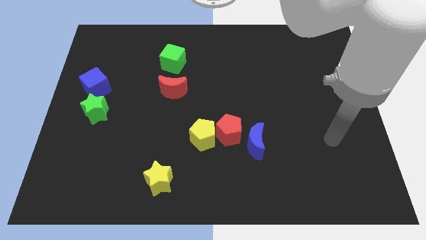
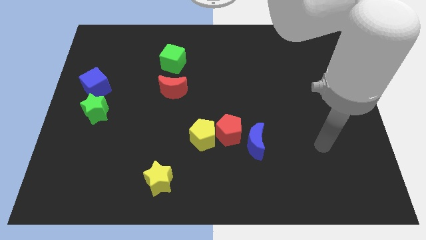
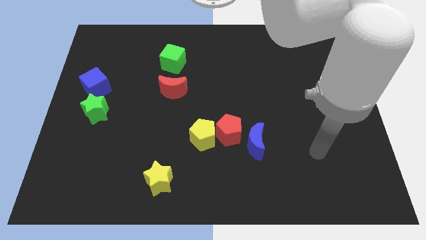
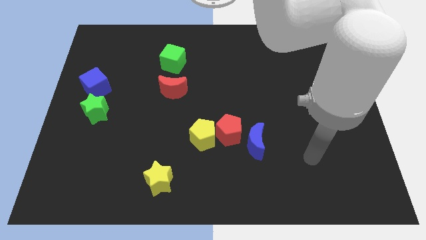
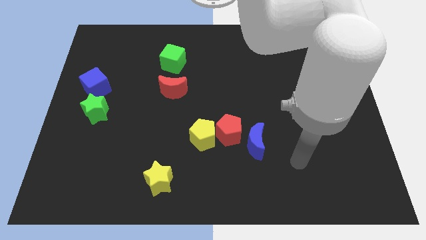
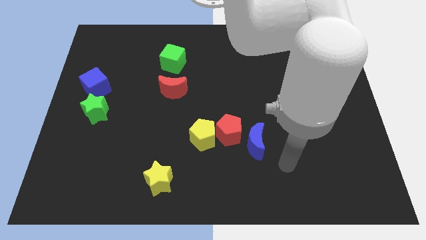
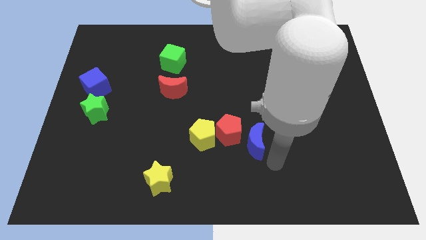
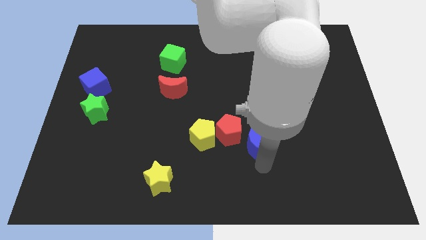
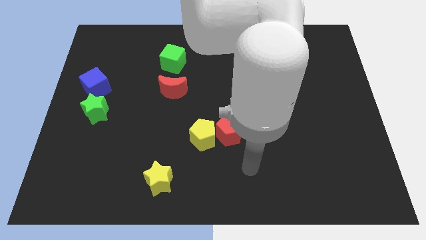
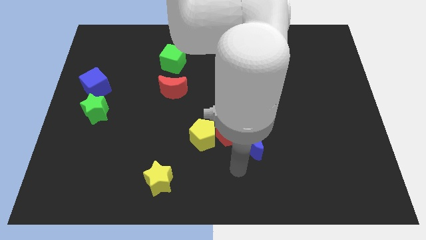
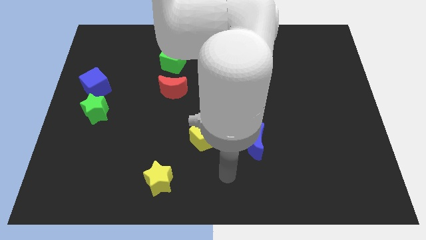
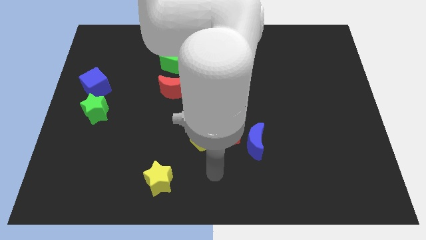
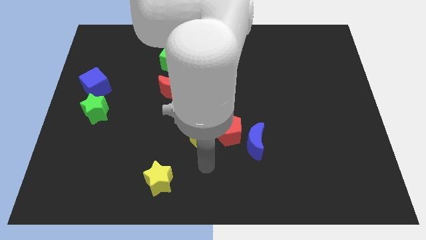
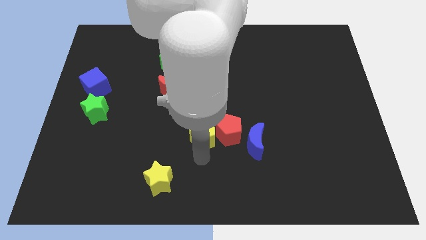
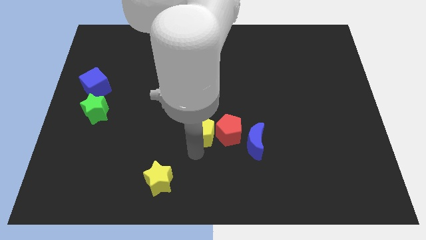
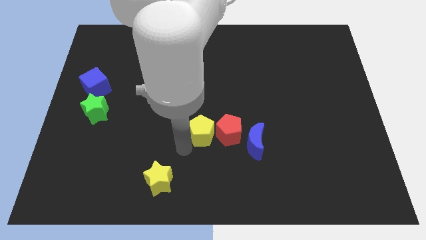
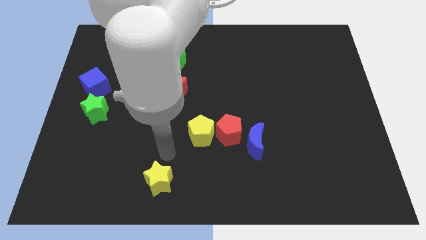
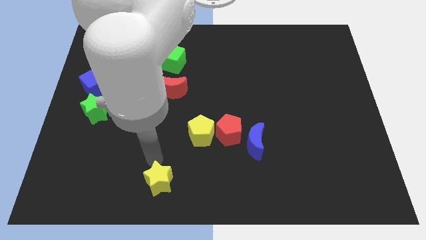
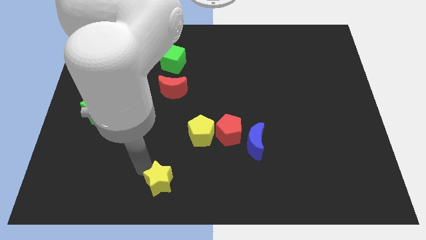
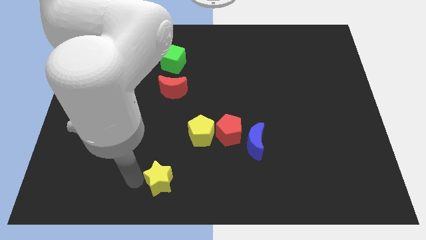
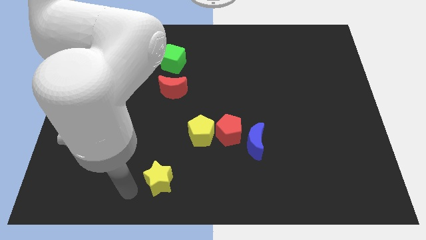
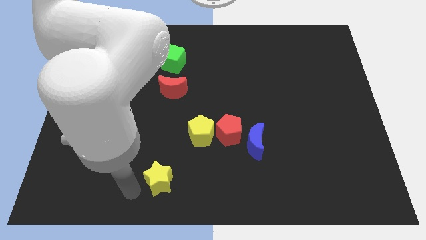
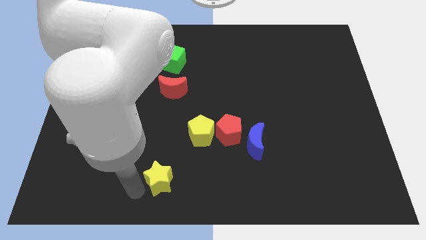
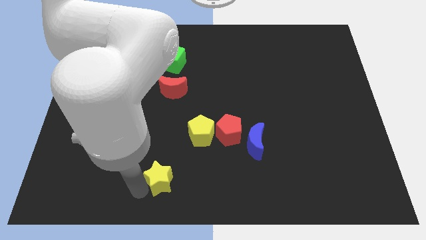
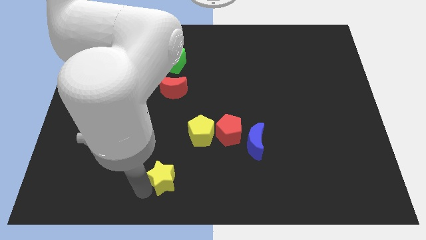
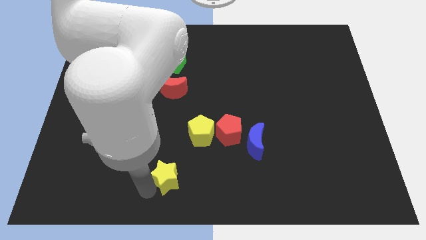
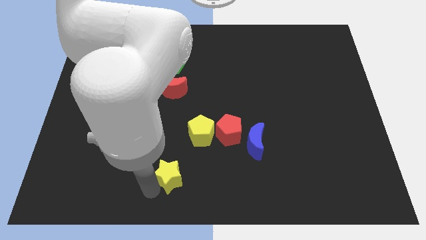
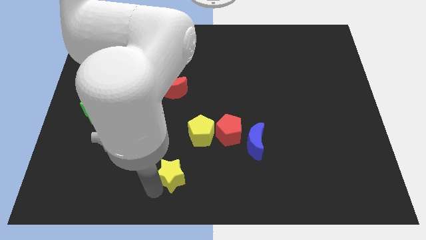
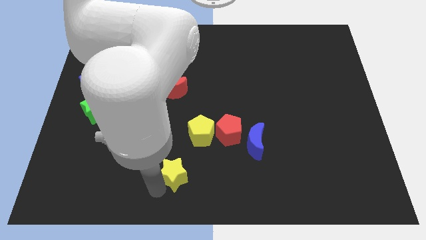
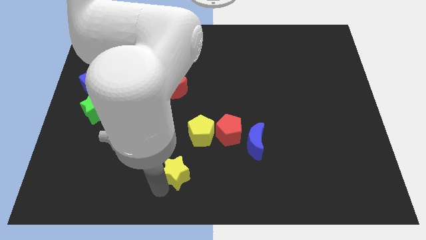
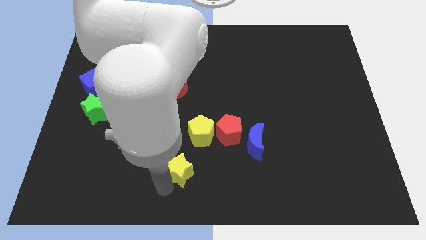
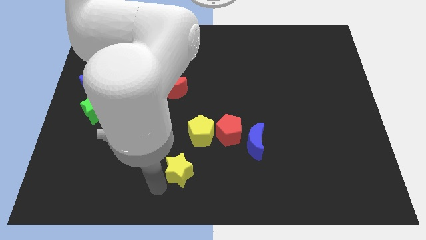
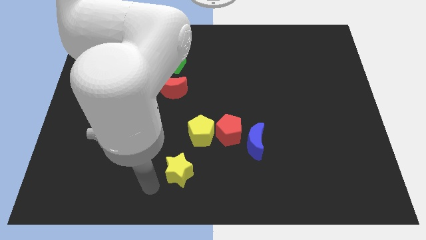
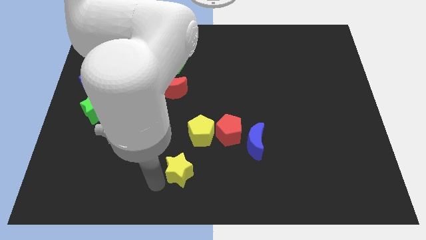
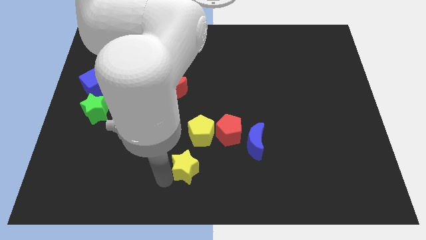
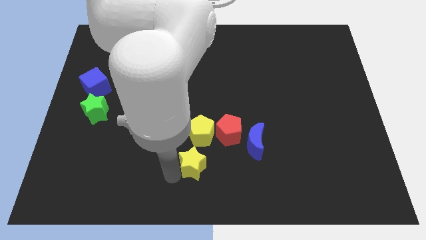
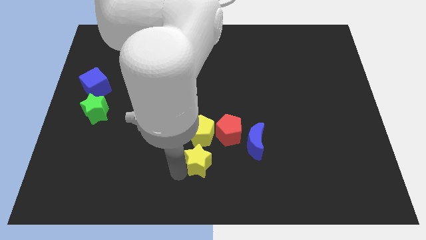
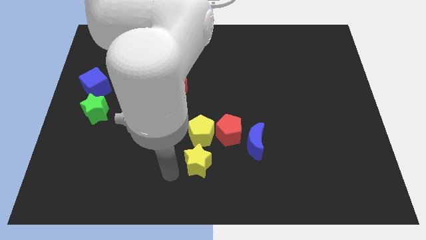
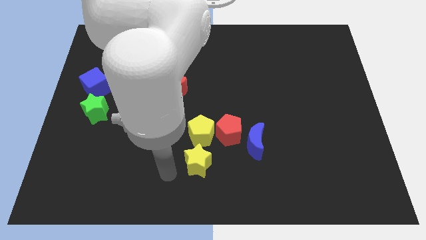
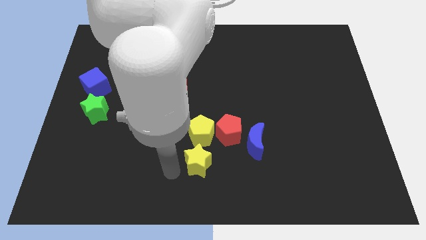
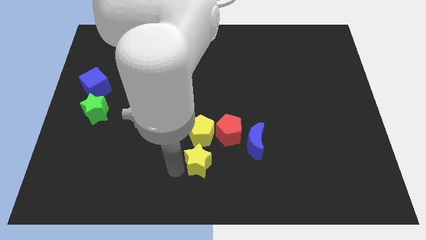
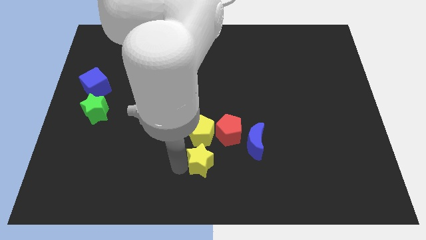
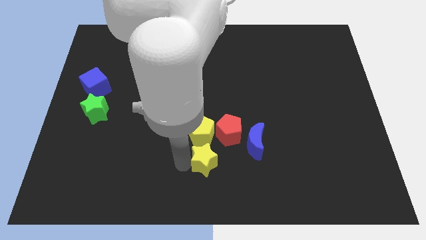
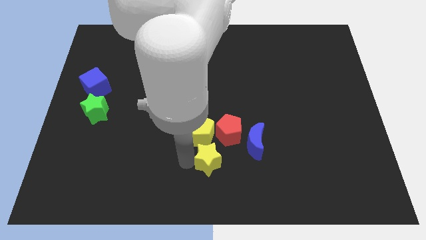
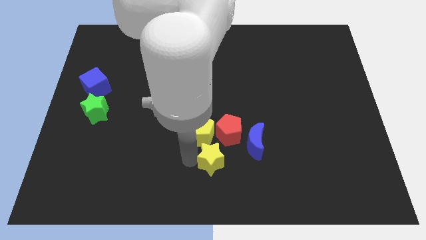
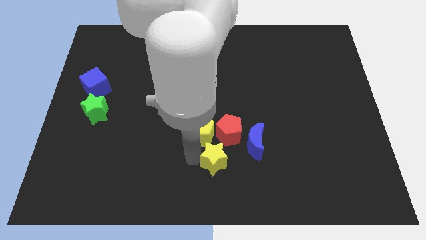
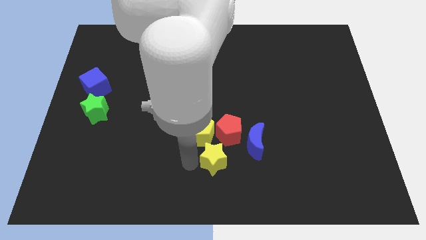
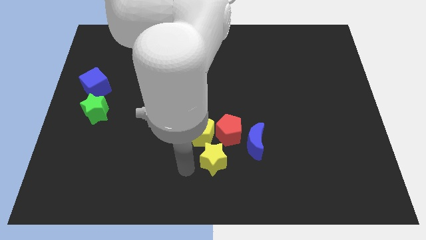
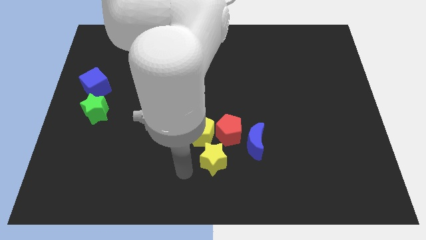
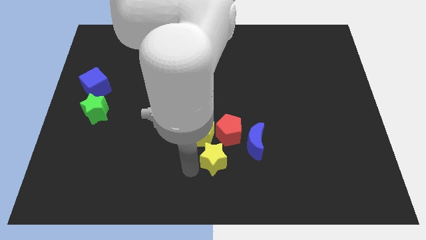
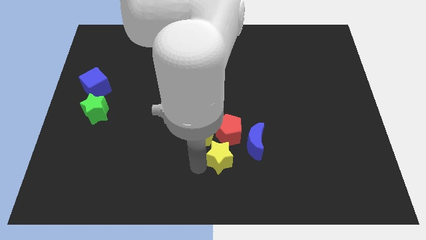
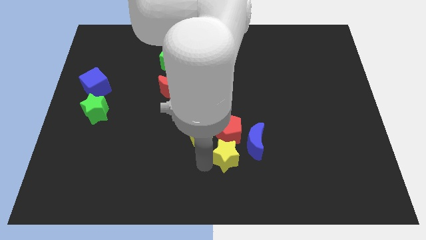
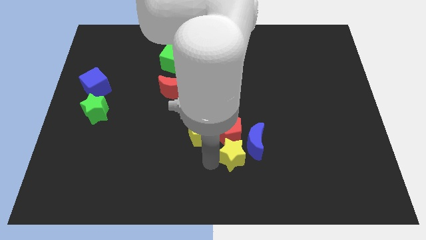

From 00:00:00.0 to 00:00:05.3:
put the yellow star close to the blue moon

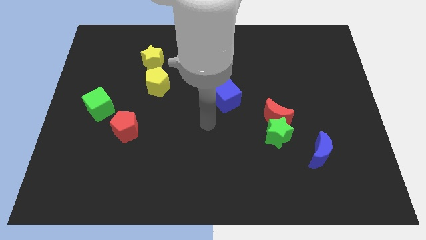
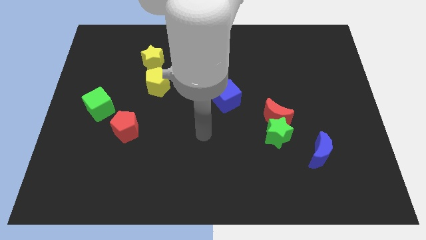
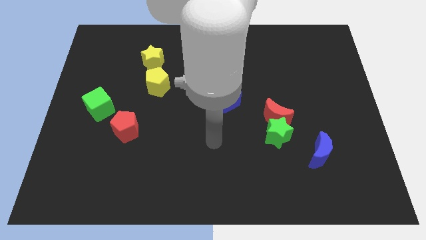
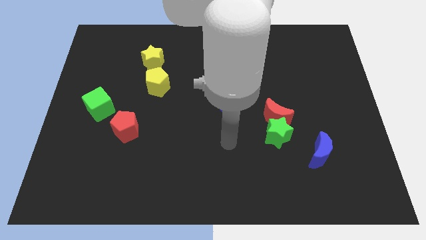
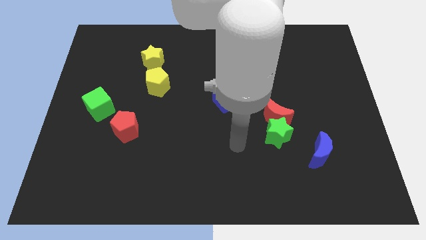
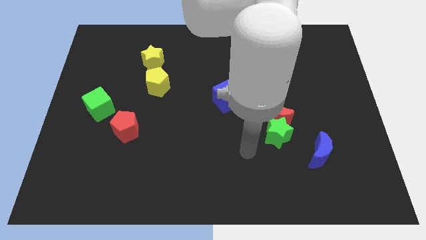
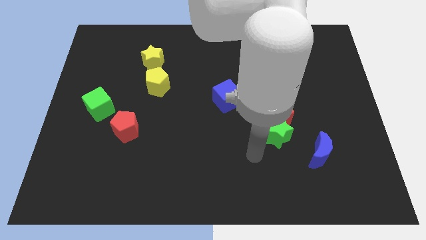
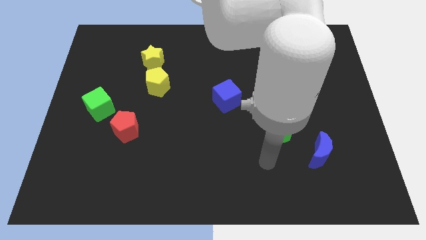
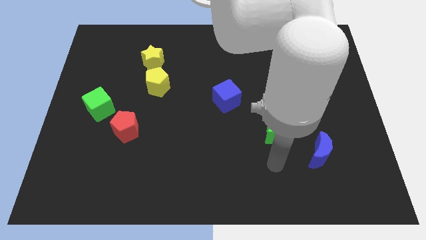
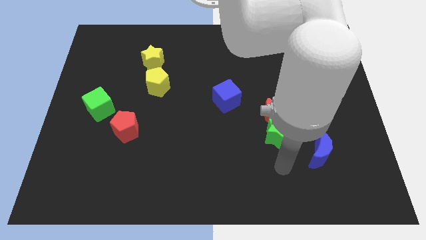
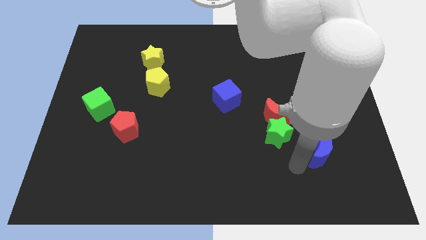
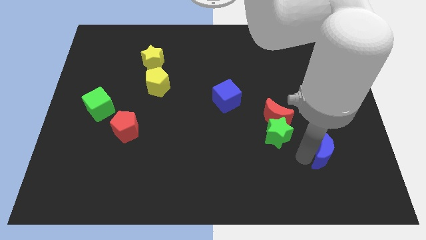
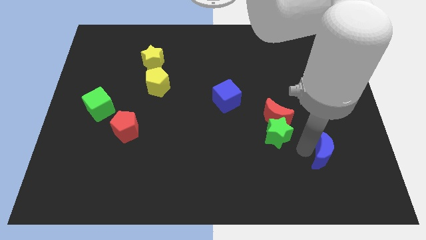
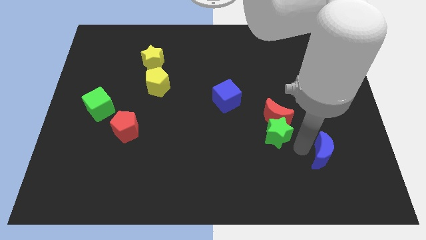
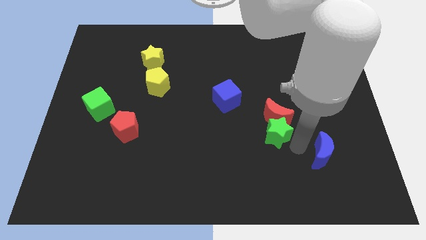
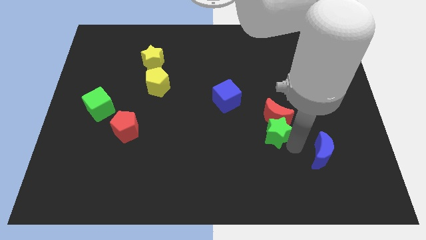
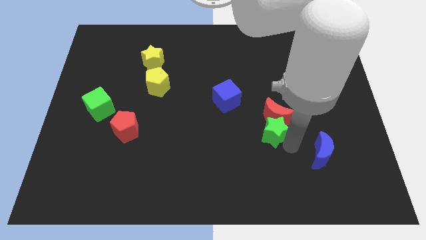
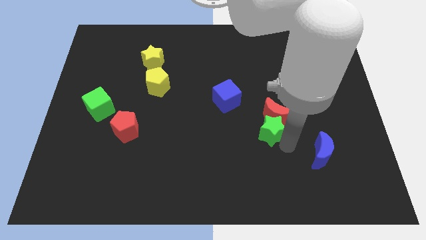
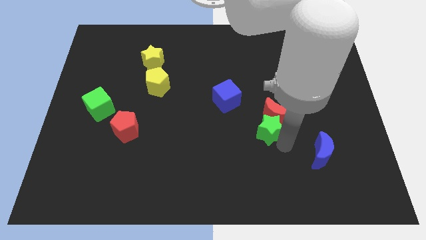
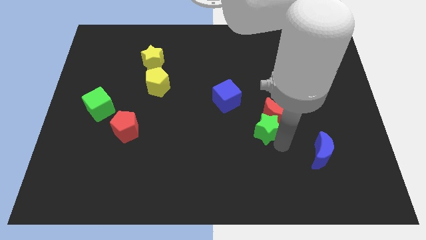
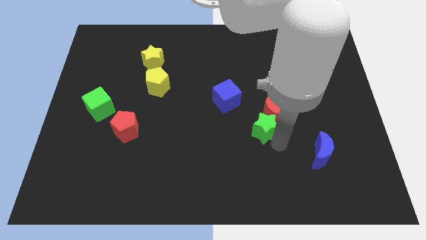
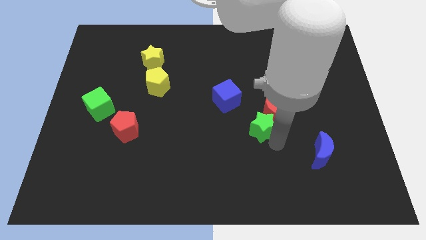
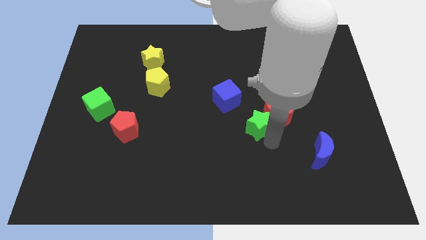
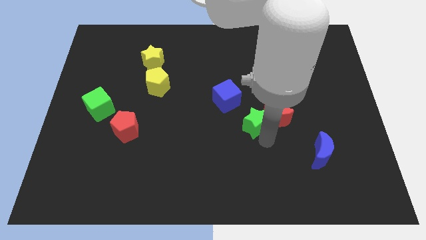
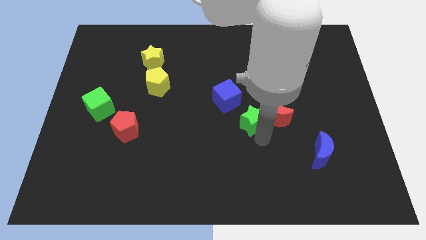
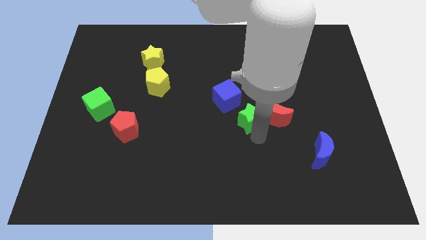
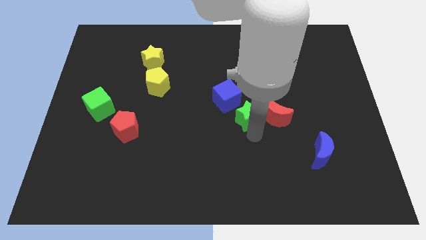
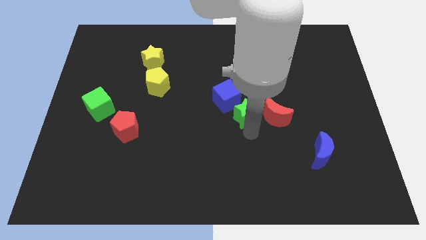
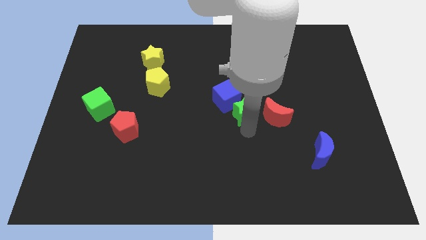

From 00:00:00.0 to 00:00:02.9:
move the green star close to the blue cube

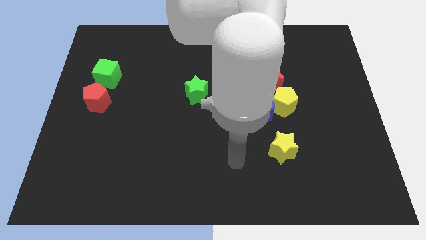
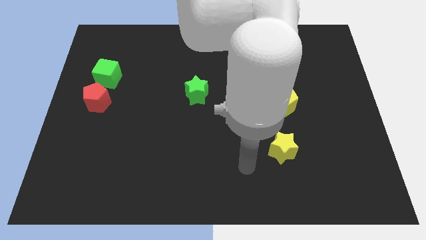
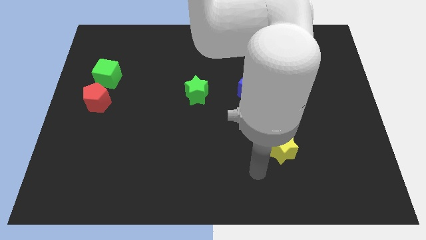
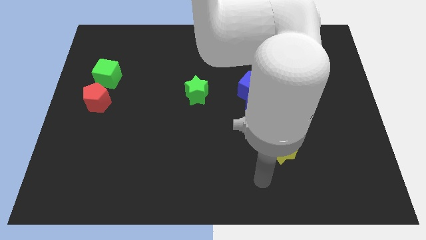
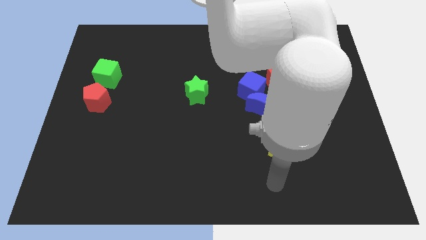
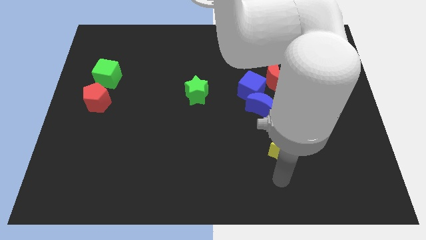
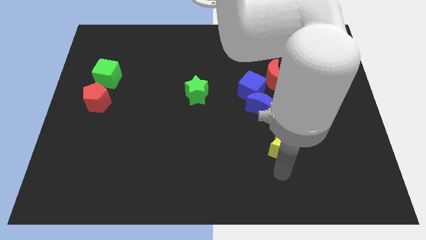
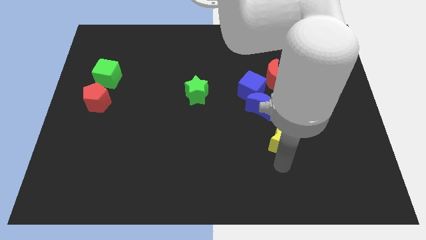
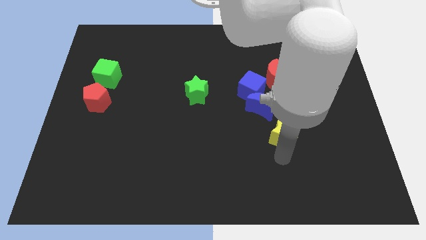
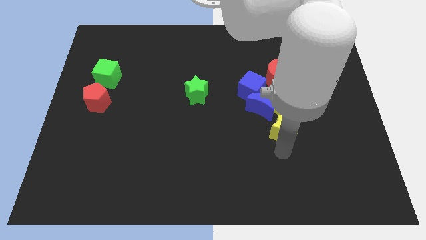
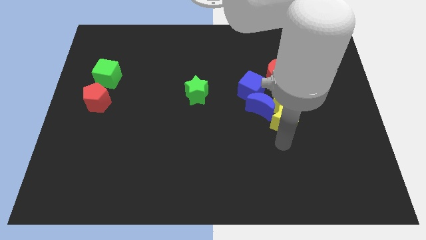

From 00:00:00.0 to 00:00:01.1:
slide the yellow star towards the yellow pentagon
